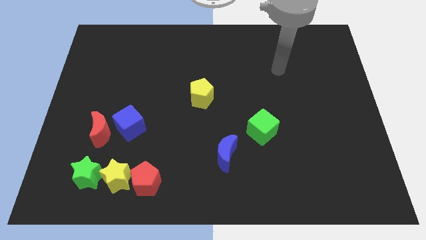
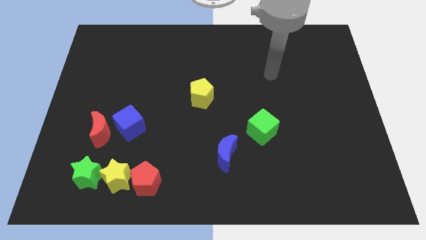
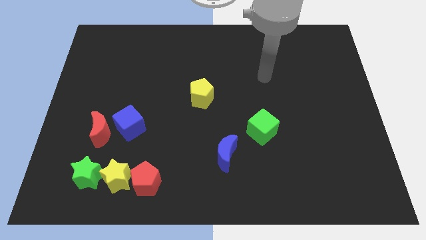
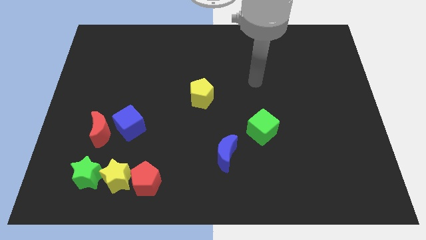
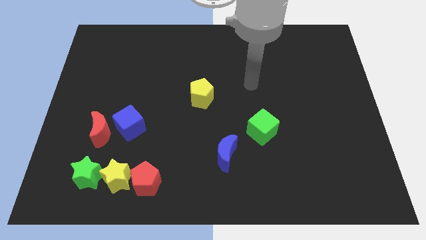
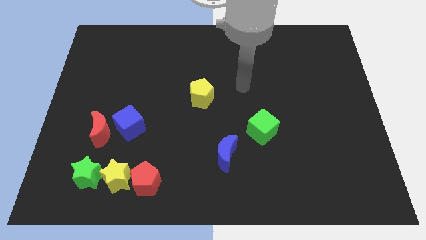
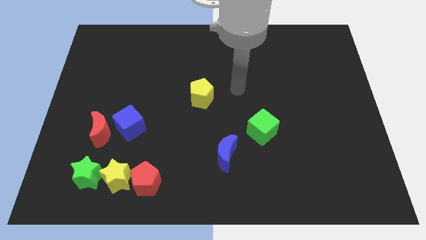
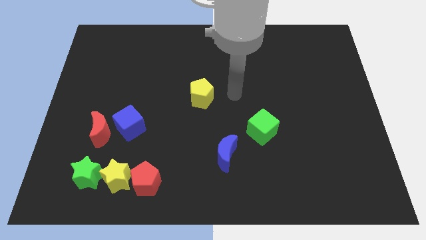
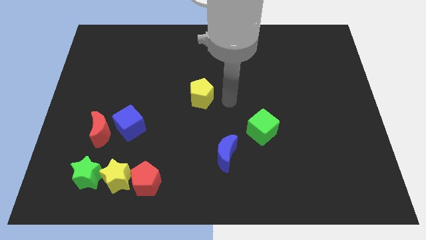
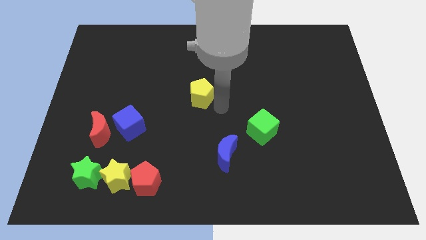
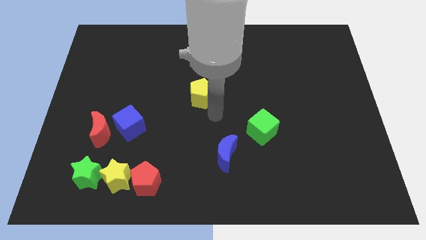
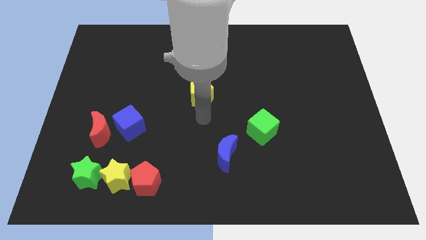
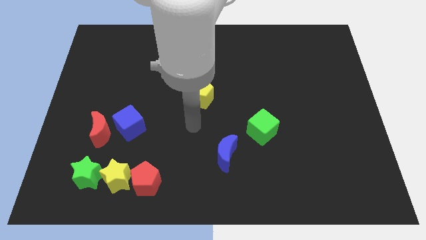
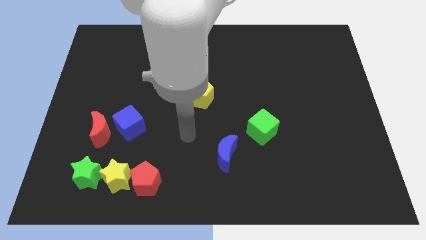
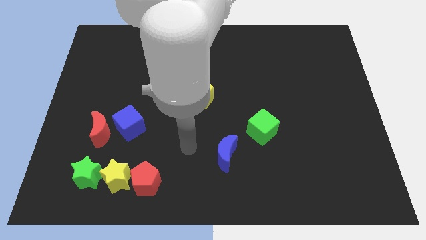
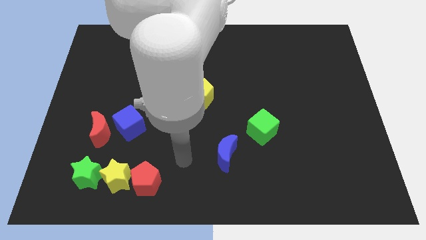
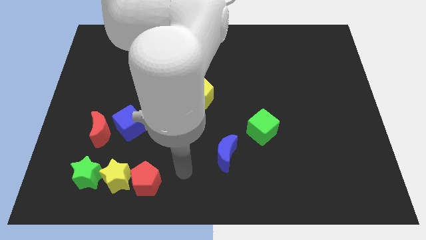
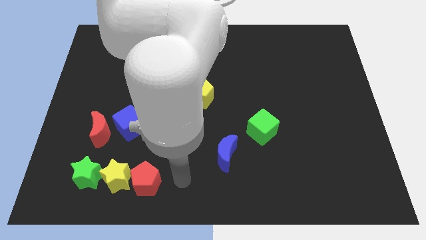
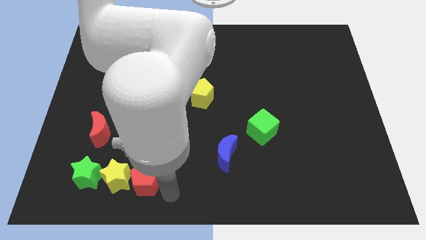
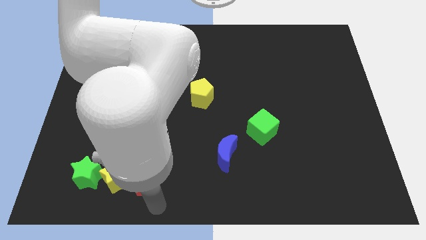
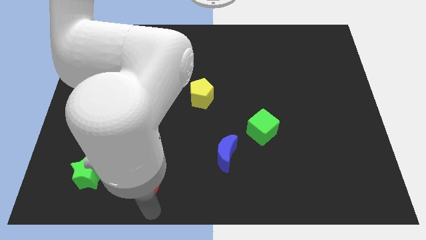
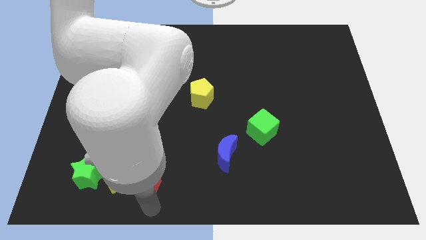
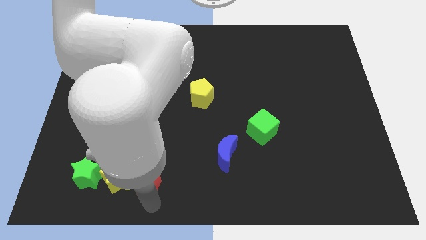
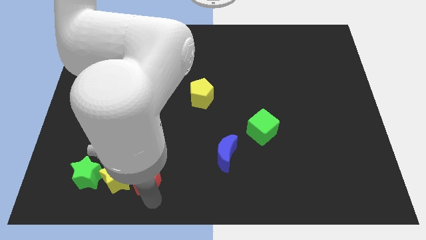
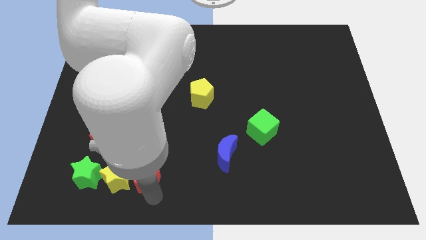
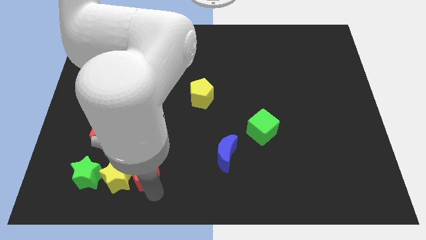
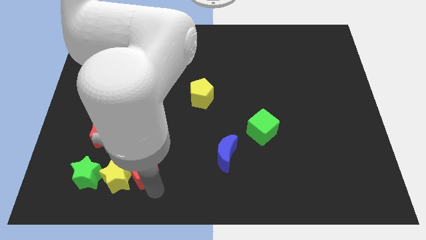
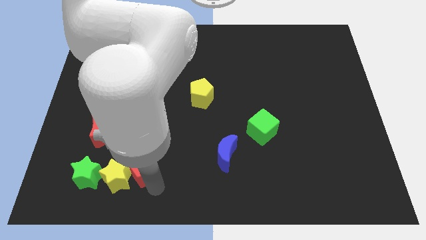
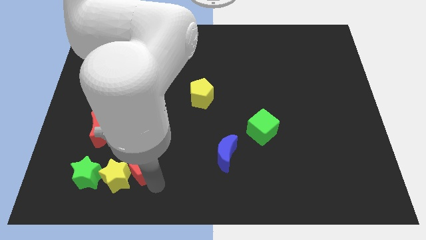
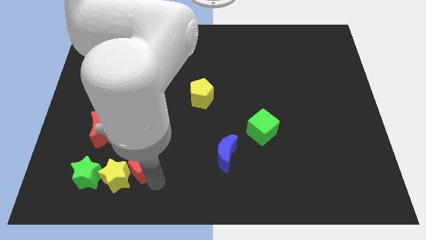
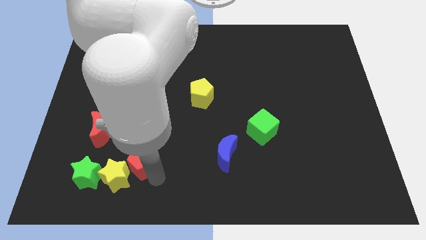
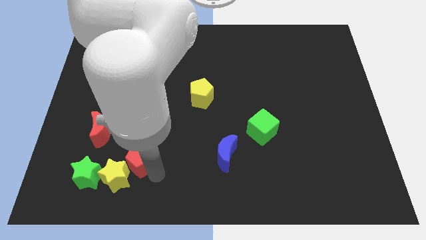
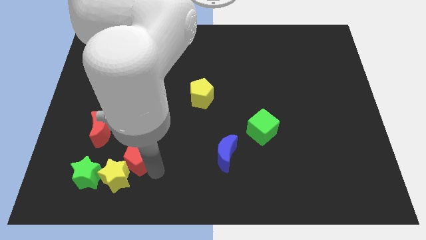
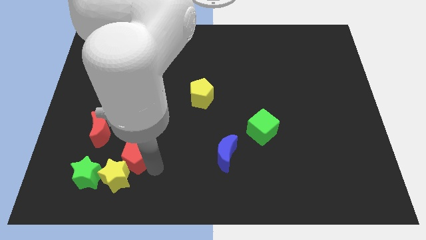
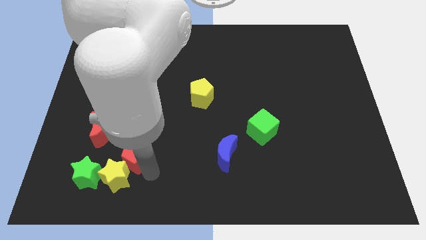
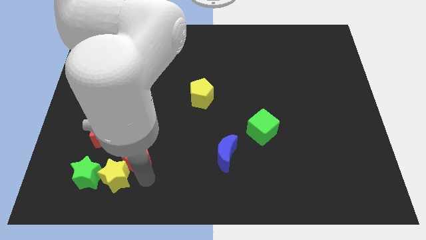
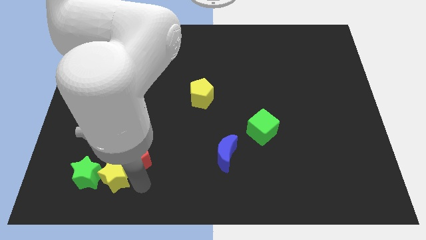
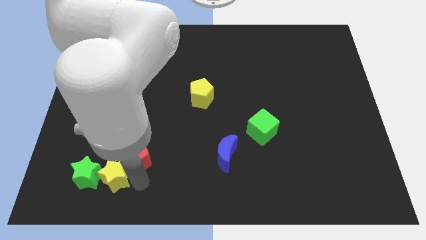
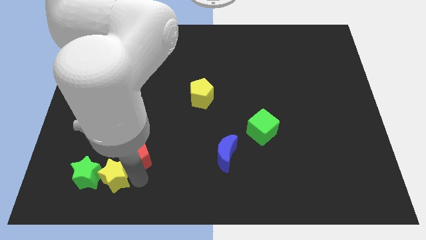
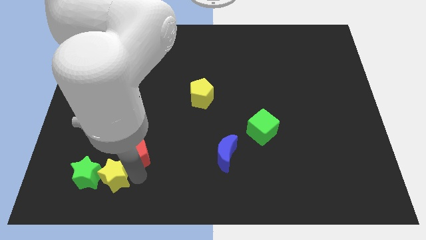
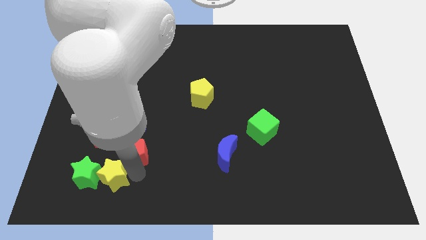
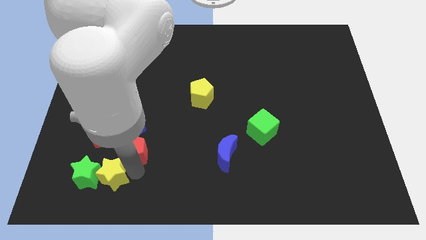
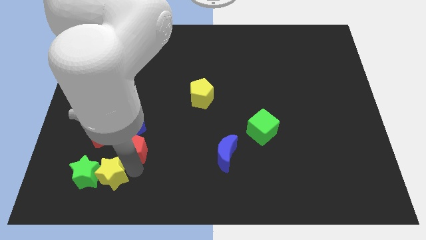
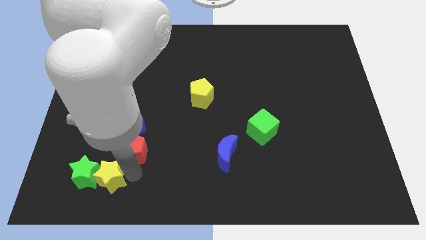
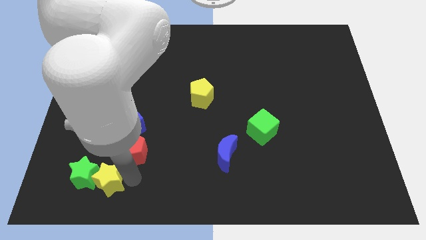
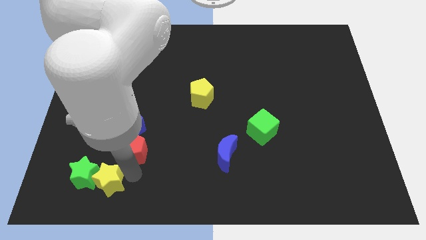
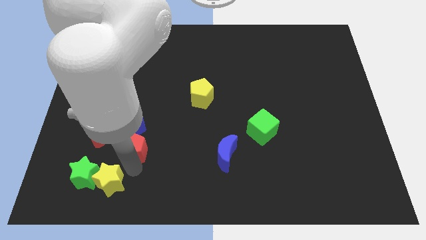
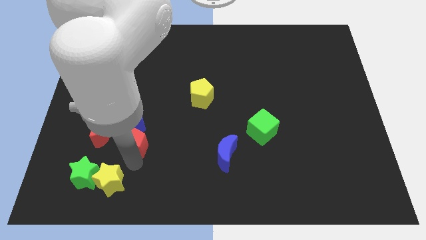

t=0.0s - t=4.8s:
move the red pentagon close to the blue cube

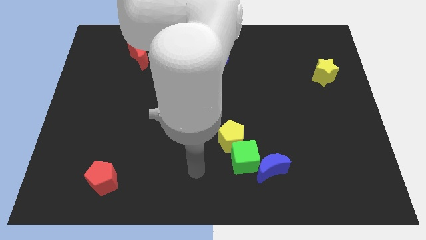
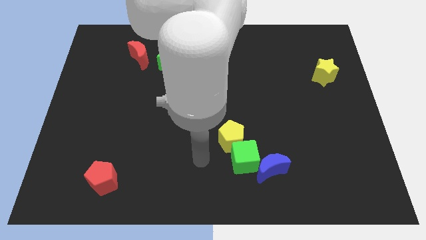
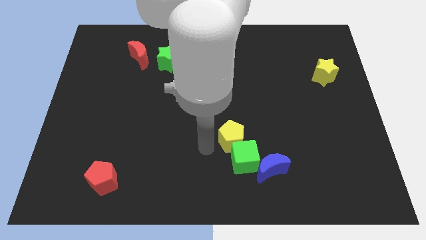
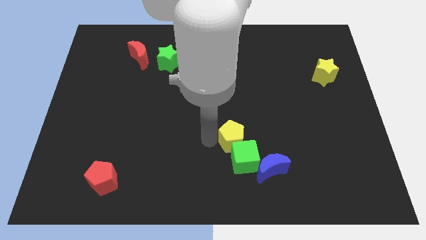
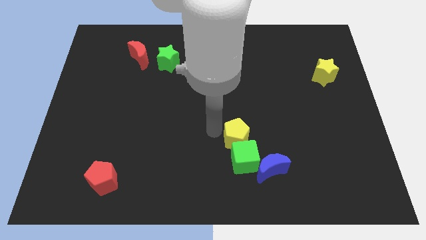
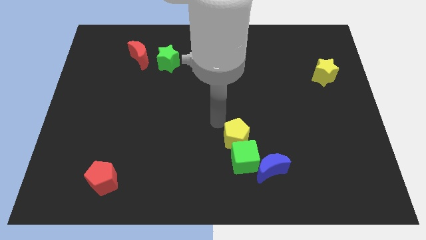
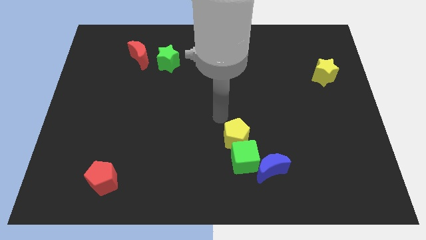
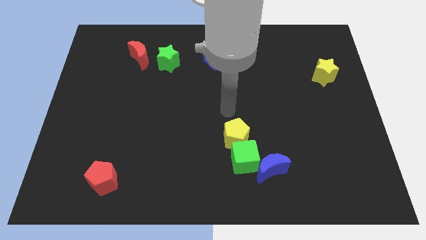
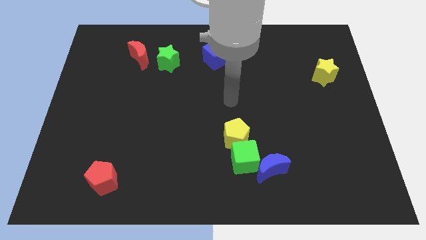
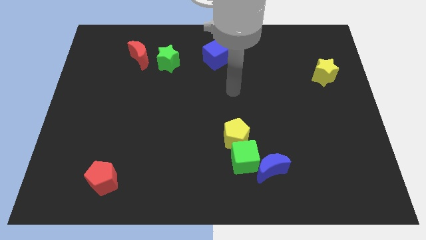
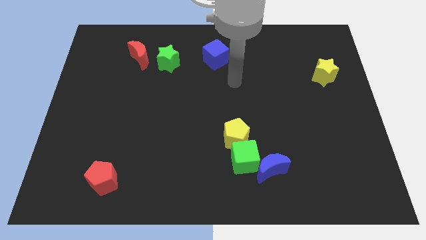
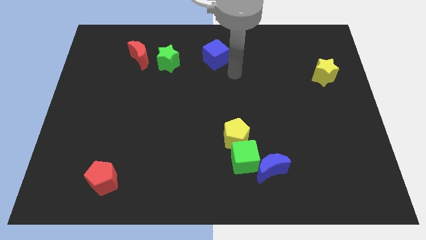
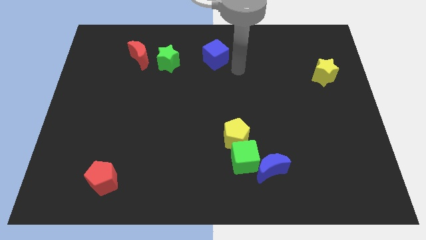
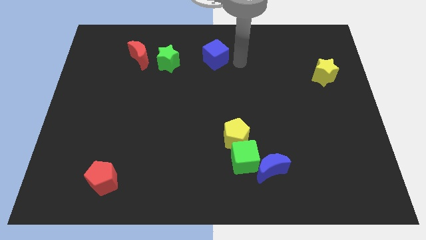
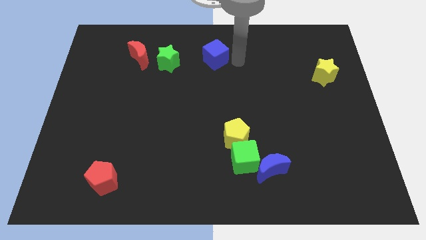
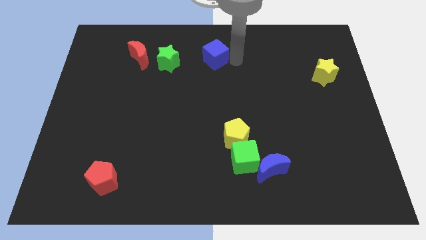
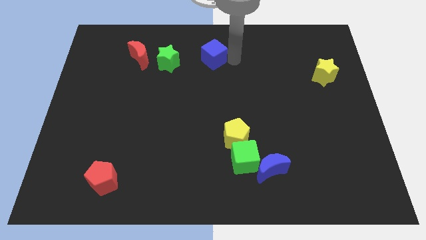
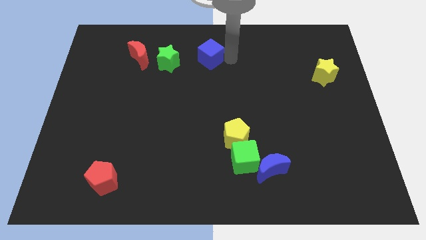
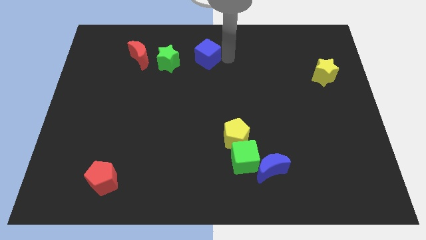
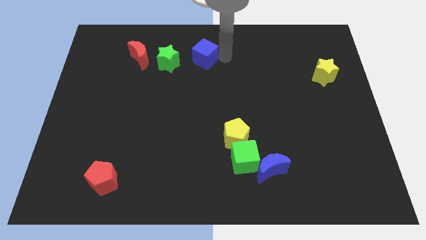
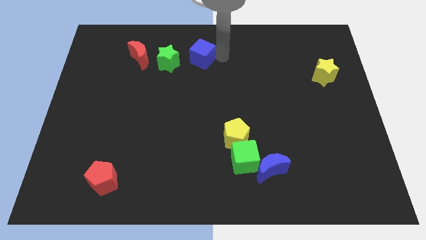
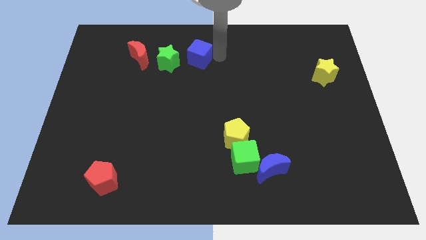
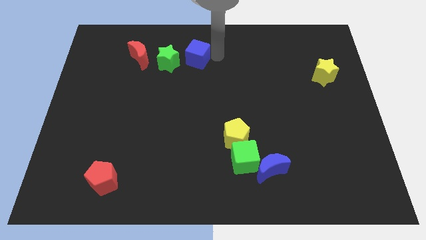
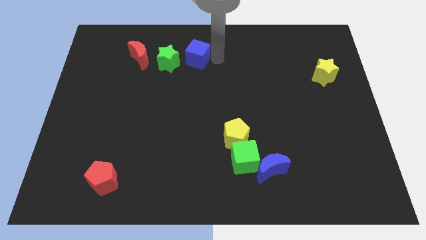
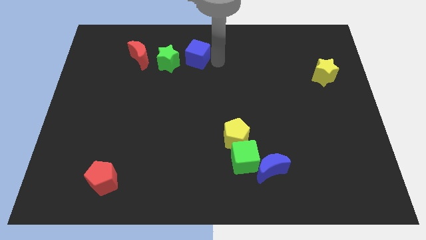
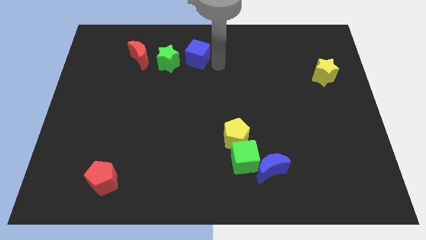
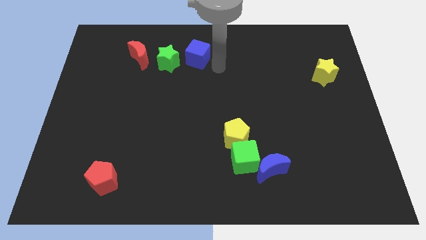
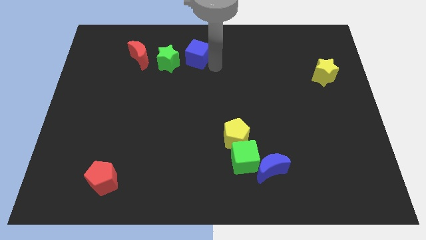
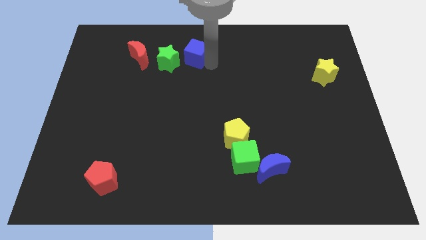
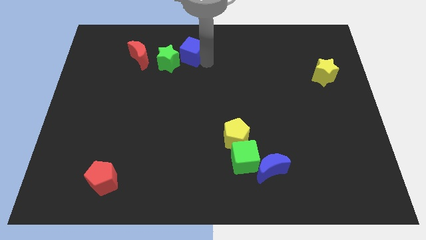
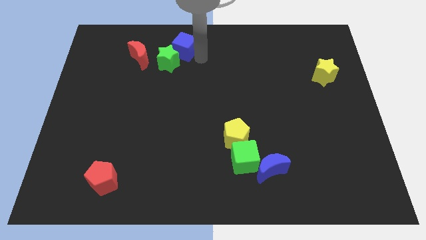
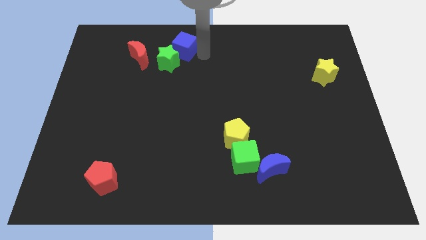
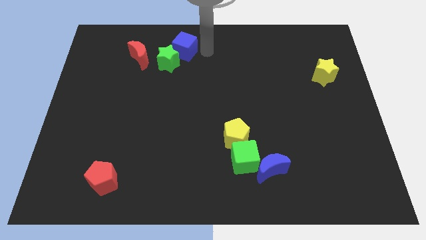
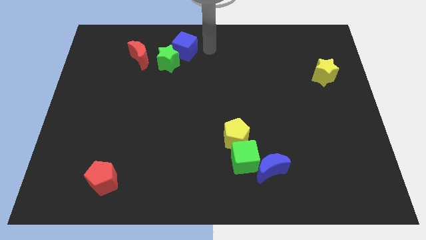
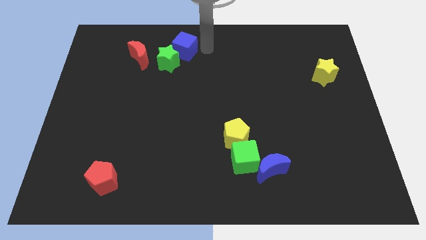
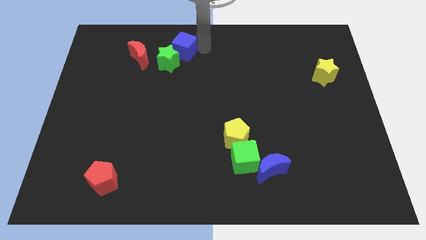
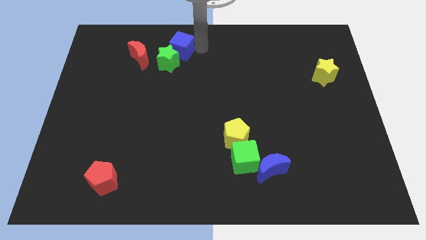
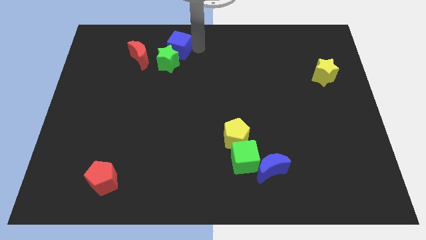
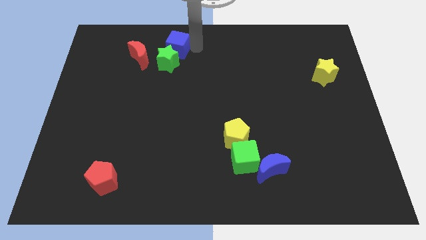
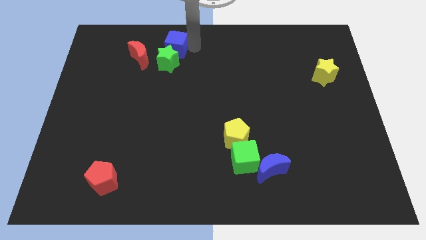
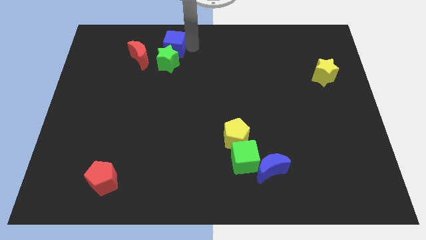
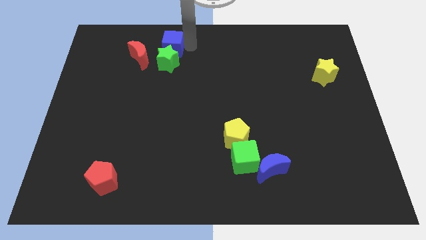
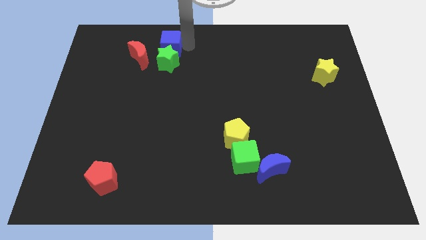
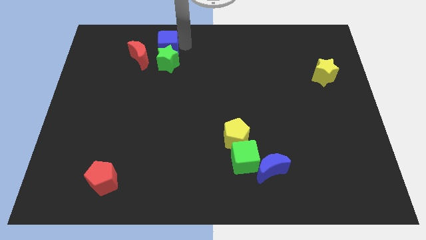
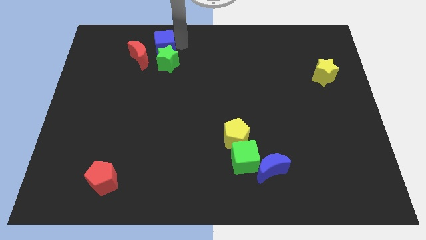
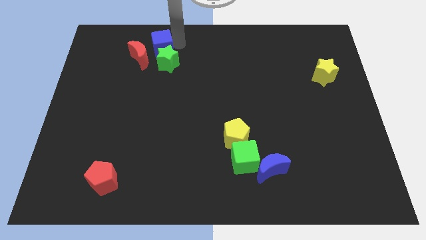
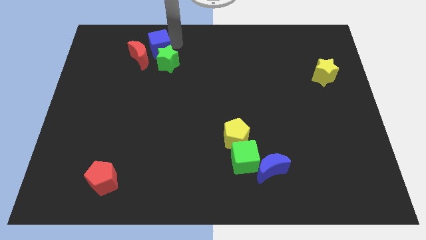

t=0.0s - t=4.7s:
move the blue cube to the red moon
